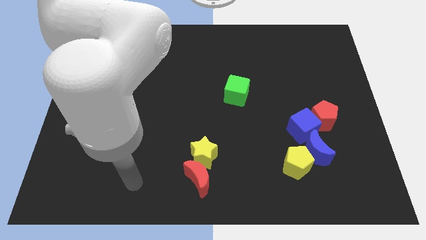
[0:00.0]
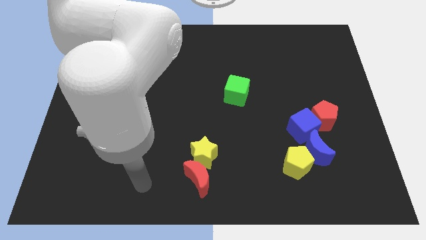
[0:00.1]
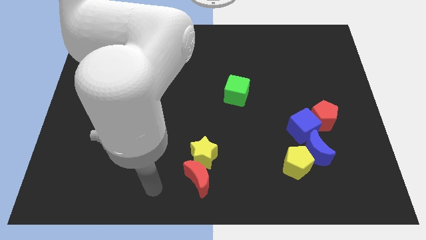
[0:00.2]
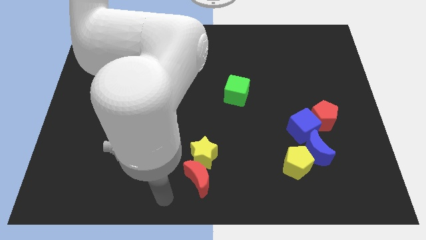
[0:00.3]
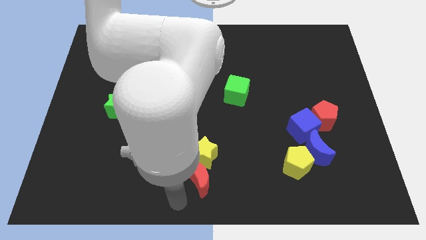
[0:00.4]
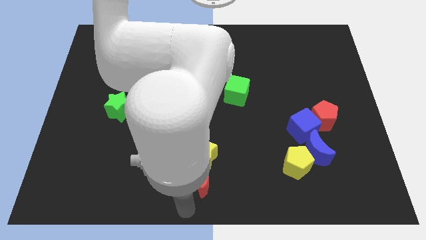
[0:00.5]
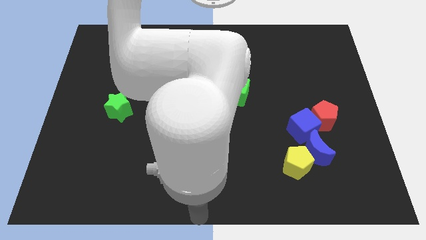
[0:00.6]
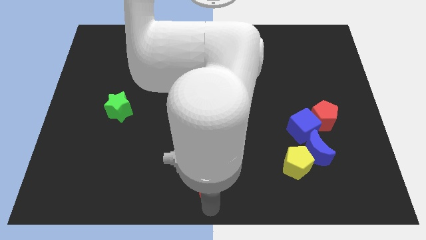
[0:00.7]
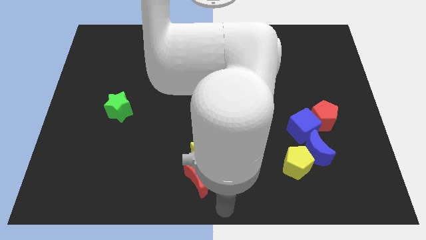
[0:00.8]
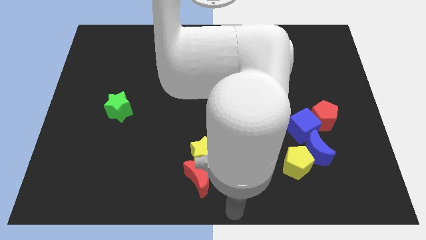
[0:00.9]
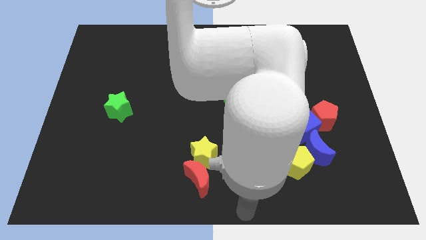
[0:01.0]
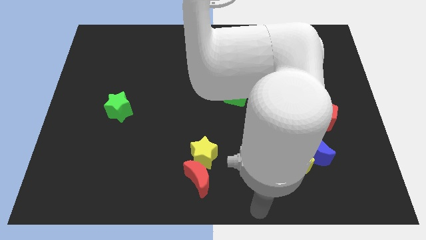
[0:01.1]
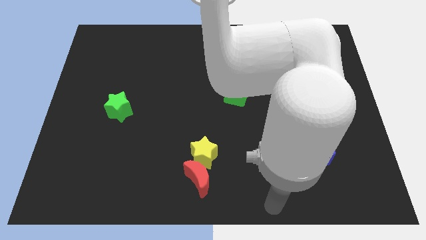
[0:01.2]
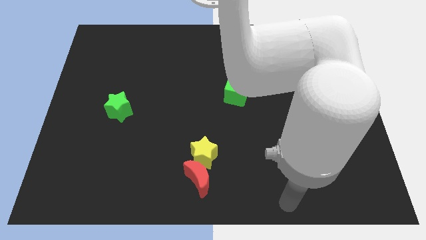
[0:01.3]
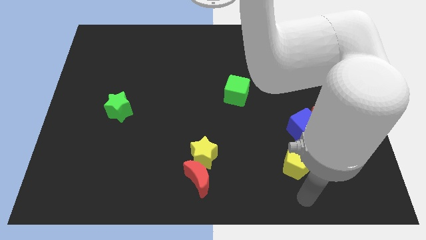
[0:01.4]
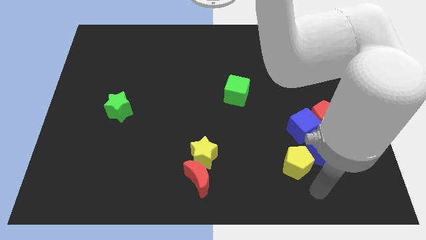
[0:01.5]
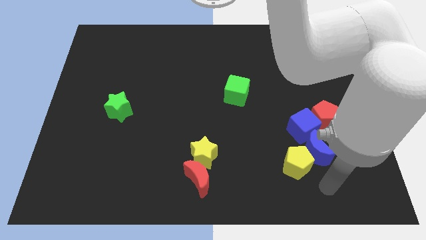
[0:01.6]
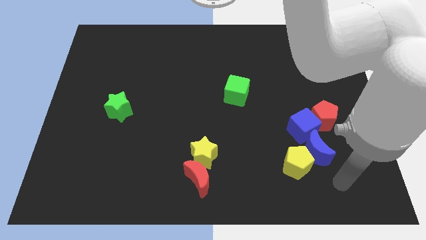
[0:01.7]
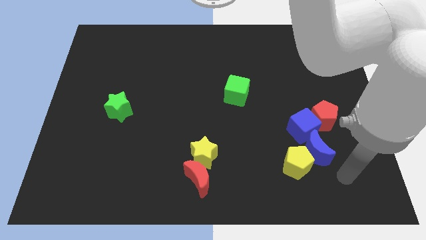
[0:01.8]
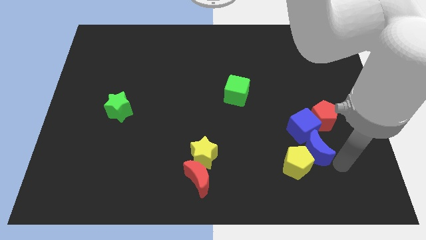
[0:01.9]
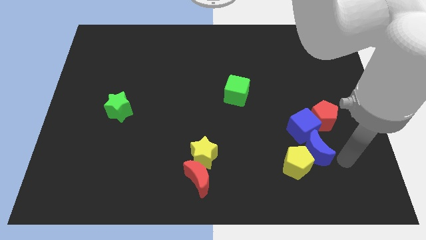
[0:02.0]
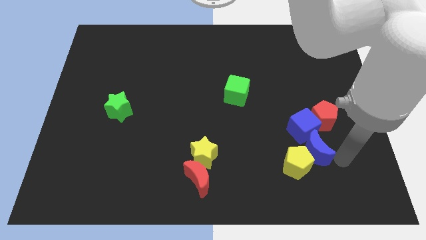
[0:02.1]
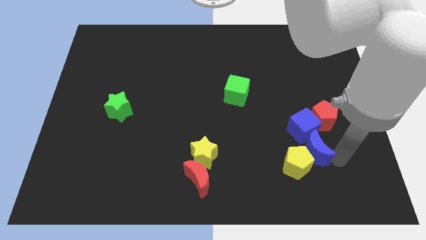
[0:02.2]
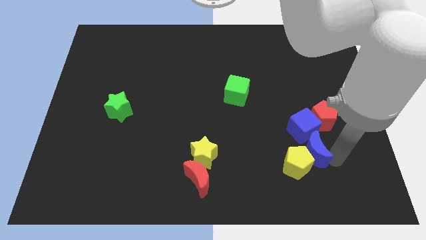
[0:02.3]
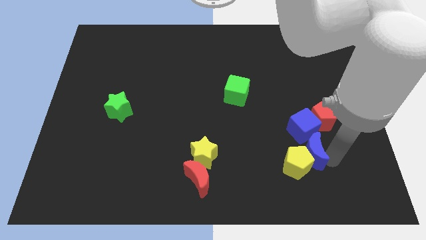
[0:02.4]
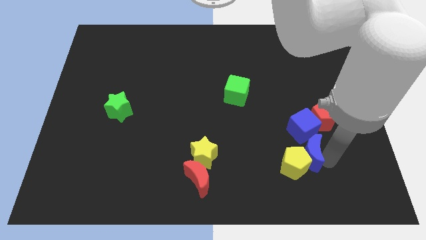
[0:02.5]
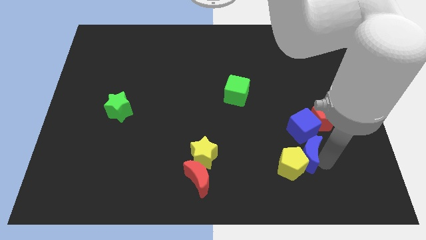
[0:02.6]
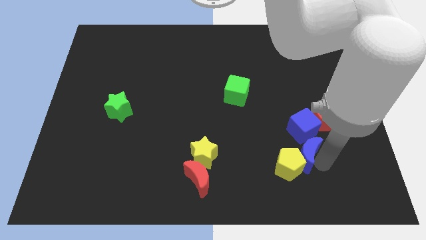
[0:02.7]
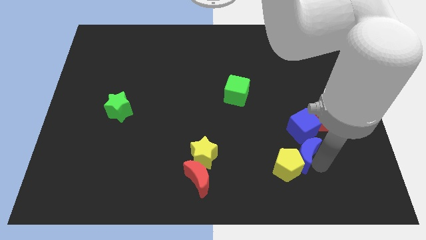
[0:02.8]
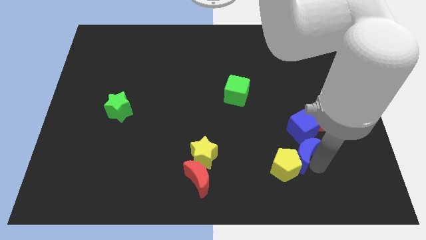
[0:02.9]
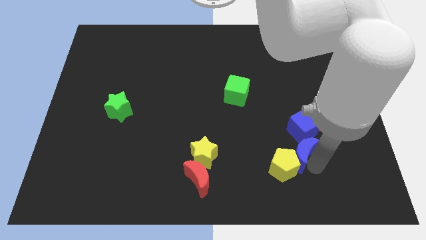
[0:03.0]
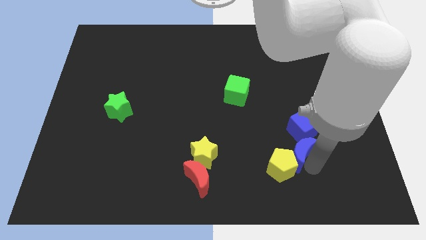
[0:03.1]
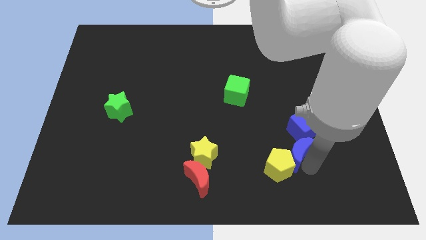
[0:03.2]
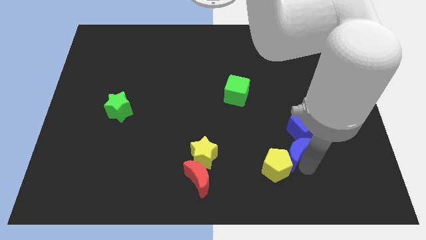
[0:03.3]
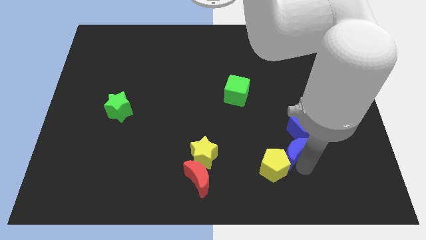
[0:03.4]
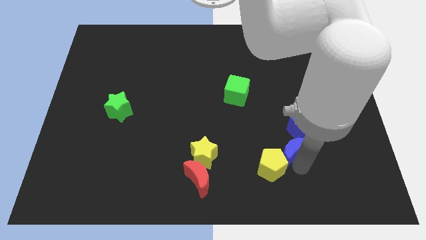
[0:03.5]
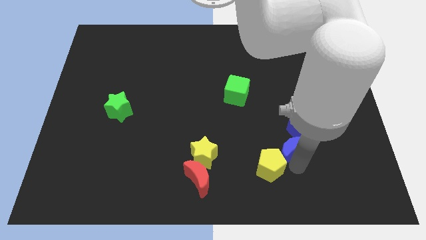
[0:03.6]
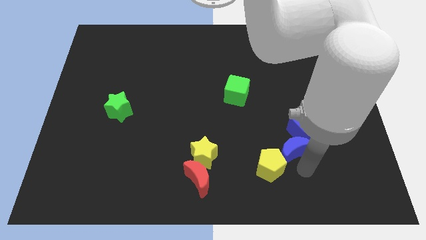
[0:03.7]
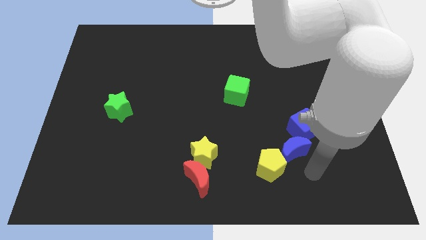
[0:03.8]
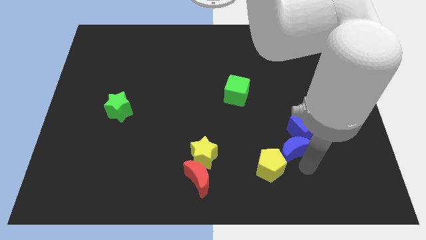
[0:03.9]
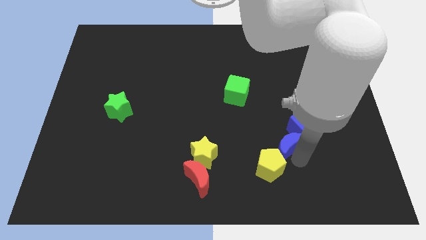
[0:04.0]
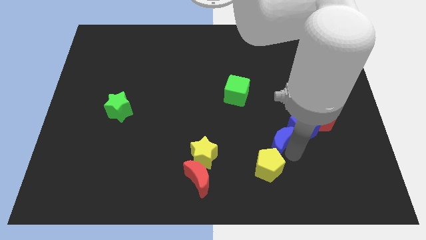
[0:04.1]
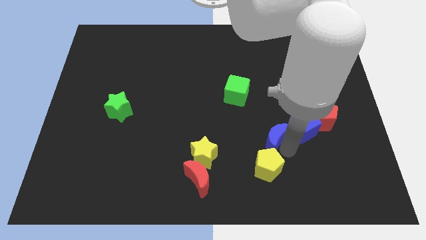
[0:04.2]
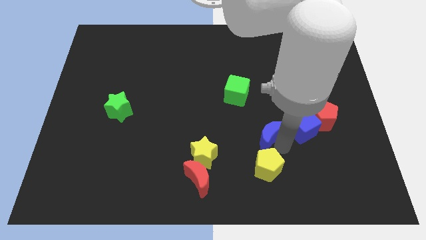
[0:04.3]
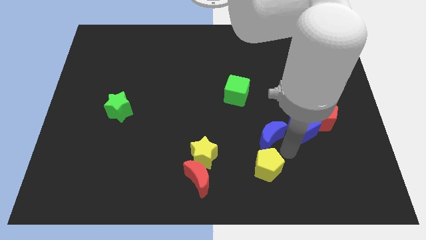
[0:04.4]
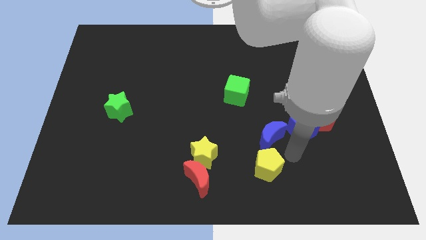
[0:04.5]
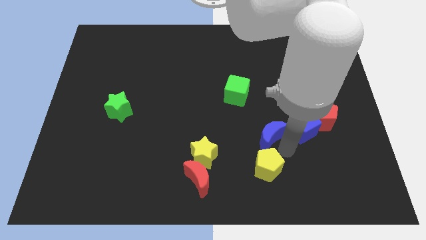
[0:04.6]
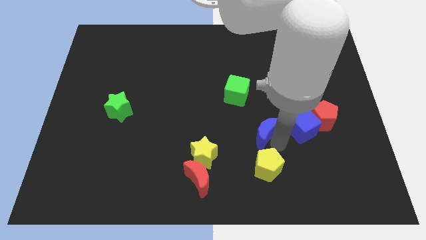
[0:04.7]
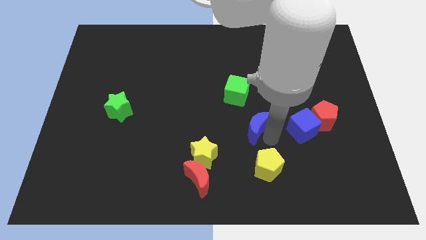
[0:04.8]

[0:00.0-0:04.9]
put the blue moon to the center

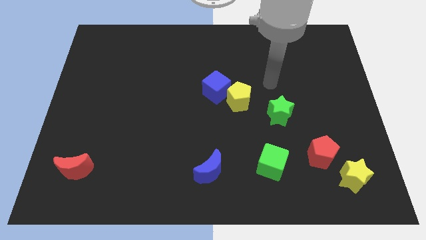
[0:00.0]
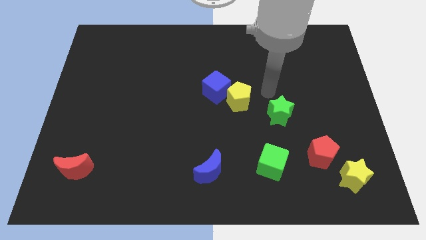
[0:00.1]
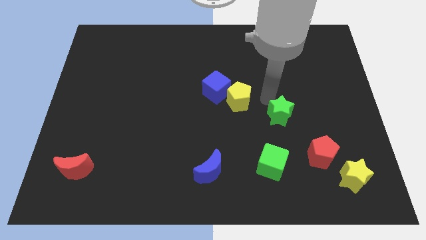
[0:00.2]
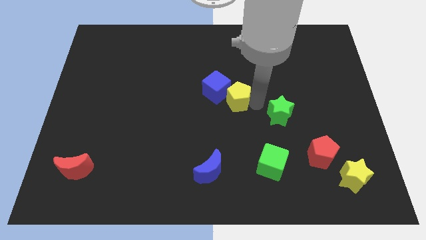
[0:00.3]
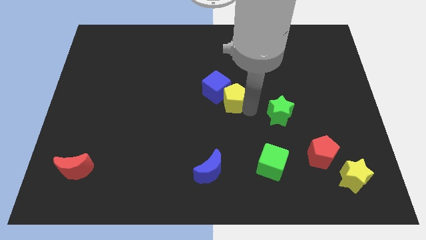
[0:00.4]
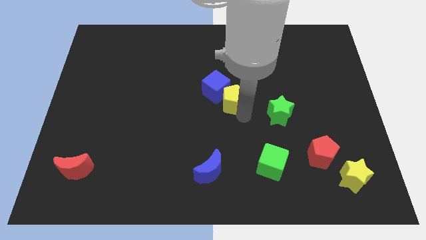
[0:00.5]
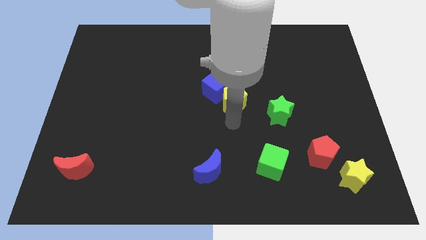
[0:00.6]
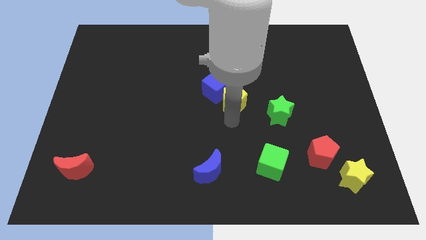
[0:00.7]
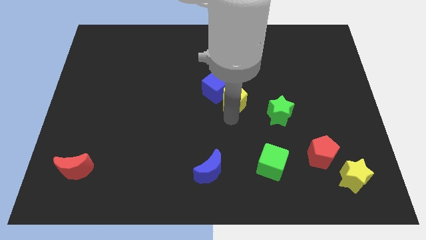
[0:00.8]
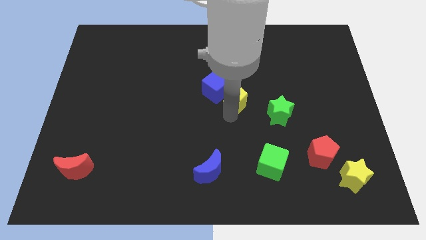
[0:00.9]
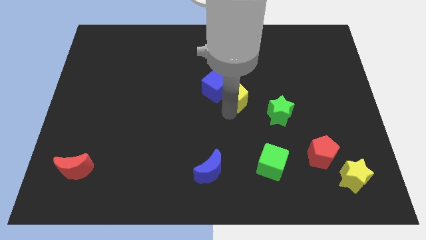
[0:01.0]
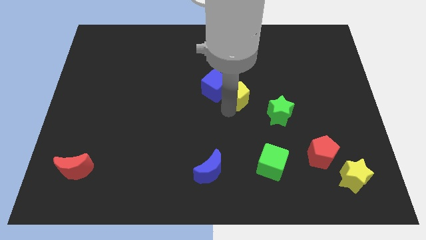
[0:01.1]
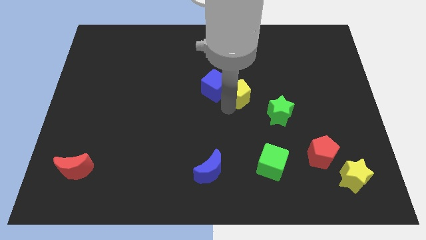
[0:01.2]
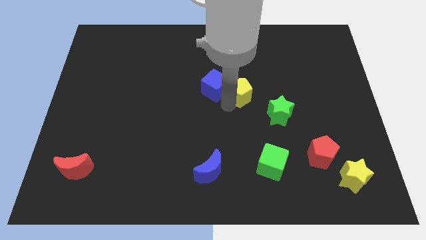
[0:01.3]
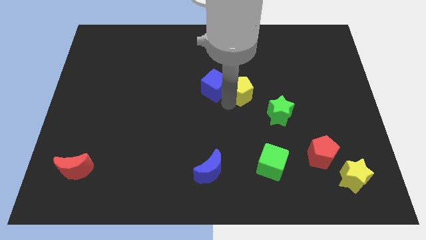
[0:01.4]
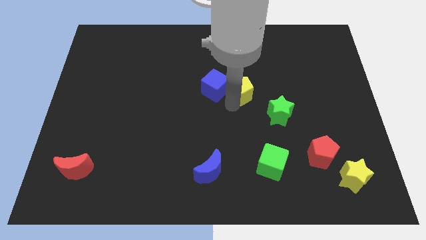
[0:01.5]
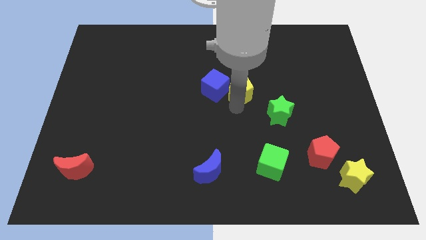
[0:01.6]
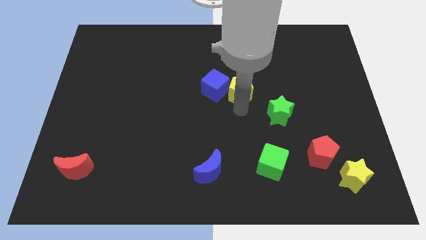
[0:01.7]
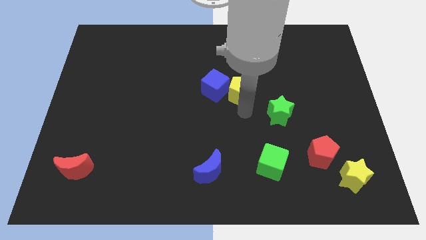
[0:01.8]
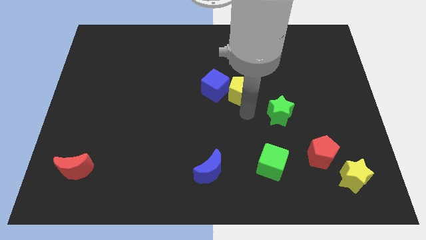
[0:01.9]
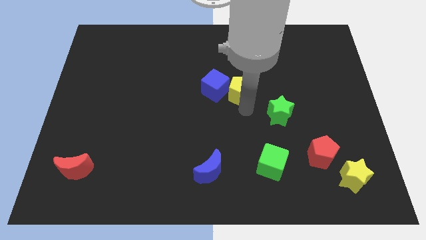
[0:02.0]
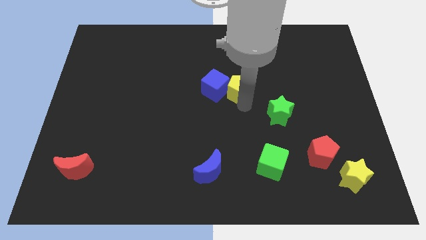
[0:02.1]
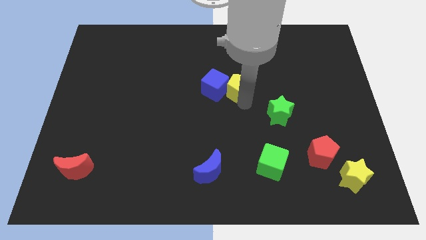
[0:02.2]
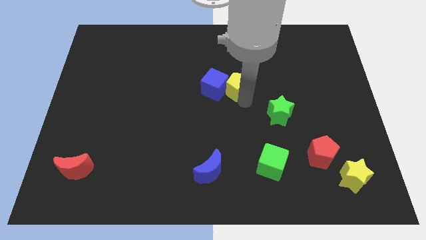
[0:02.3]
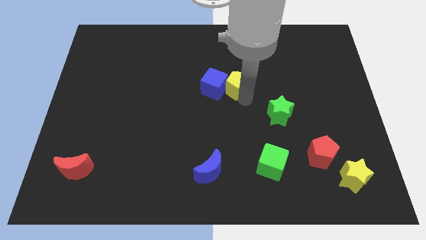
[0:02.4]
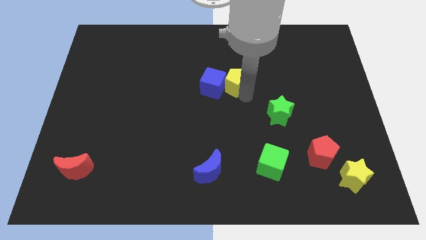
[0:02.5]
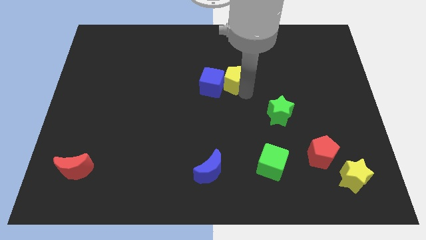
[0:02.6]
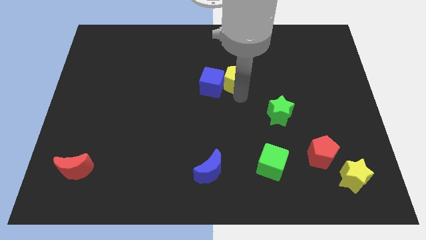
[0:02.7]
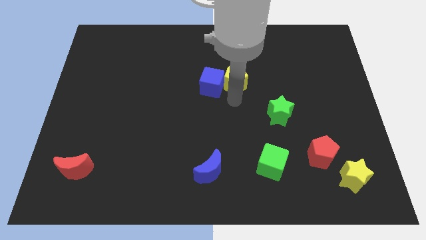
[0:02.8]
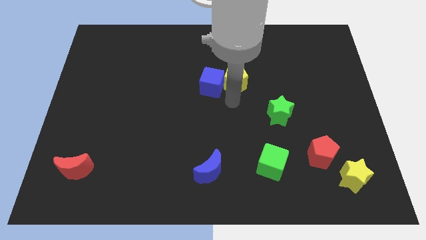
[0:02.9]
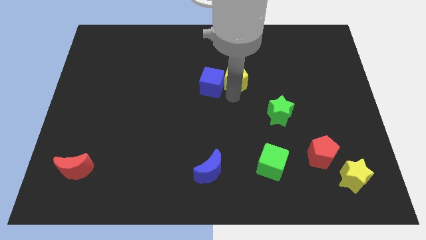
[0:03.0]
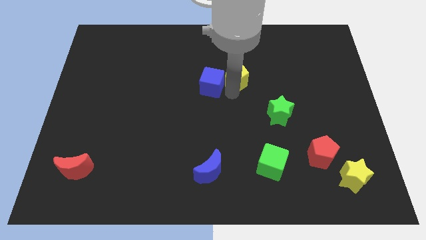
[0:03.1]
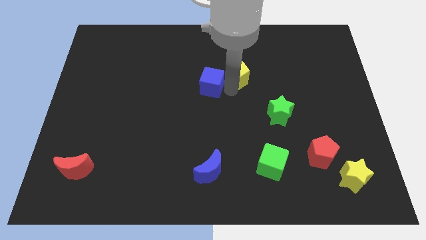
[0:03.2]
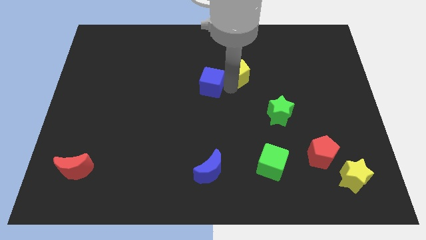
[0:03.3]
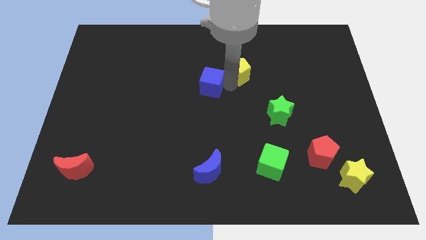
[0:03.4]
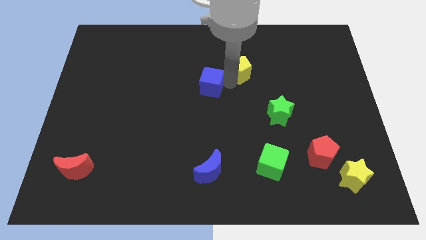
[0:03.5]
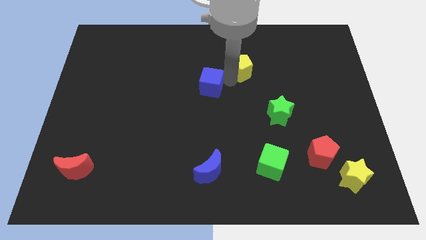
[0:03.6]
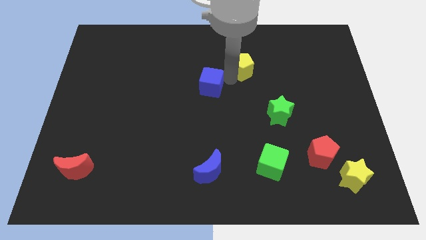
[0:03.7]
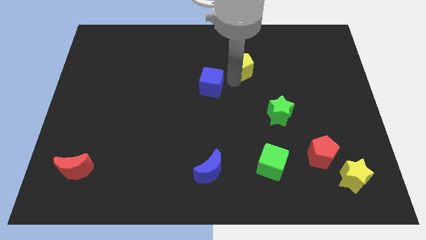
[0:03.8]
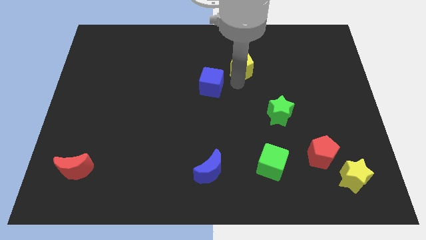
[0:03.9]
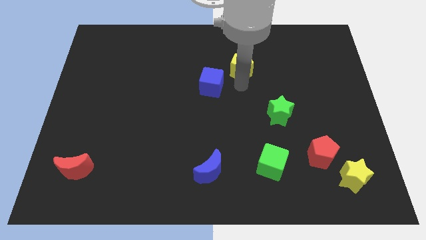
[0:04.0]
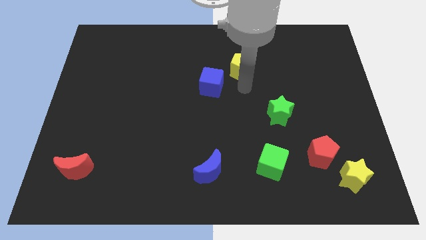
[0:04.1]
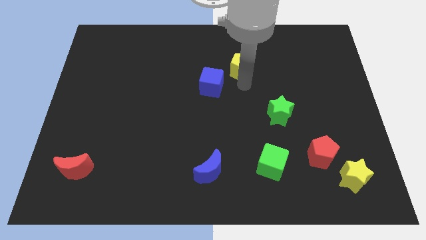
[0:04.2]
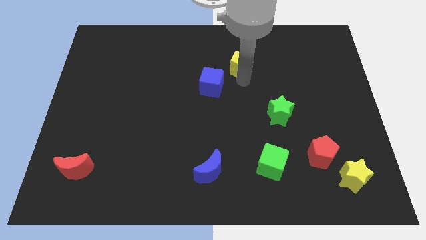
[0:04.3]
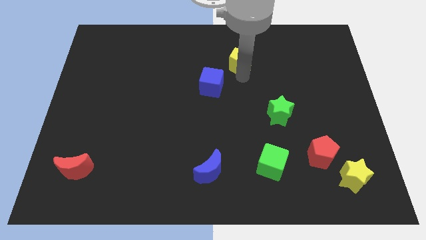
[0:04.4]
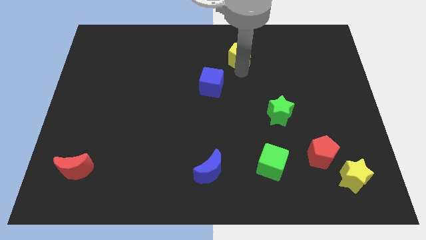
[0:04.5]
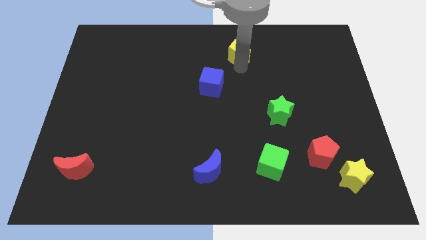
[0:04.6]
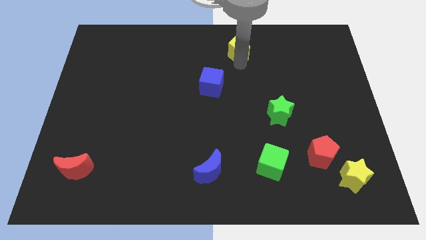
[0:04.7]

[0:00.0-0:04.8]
put the yellow pentagon to the towards your base
